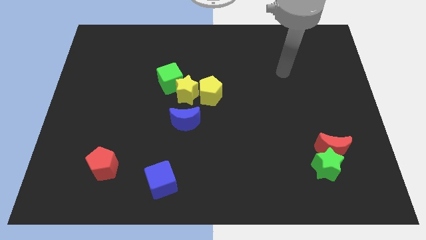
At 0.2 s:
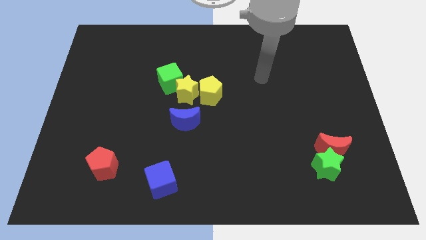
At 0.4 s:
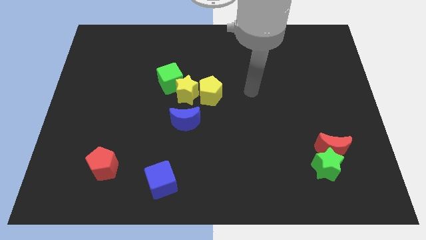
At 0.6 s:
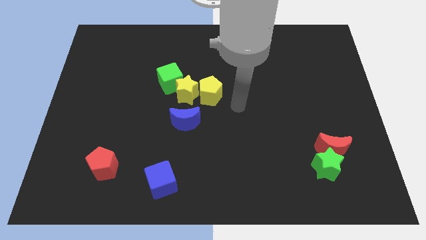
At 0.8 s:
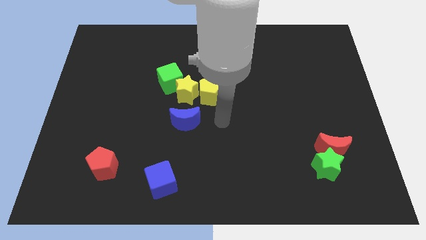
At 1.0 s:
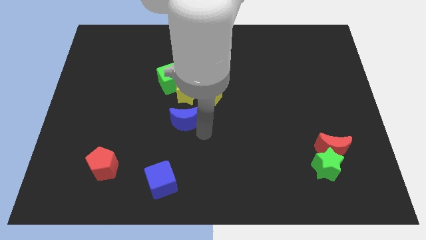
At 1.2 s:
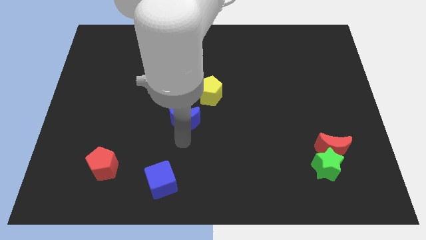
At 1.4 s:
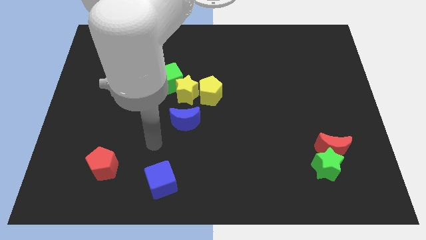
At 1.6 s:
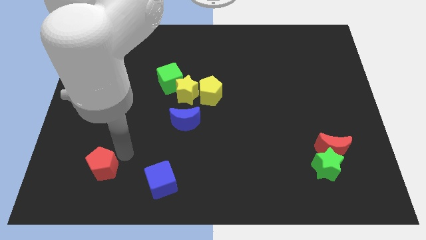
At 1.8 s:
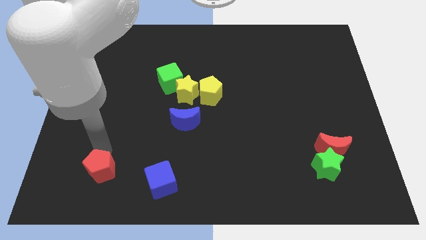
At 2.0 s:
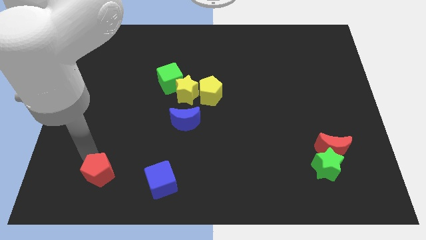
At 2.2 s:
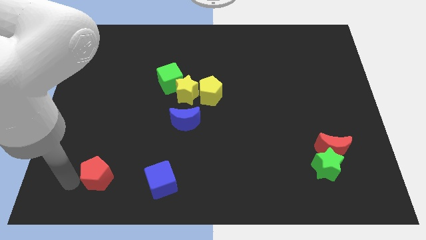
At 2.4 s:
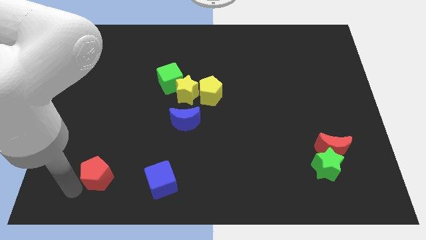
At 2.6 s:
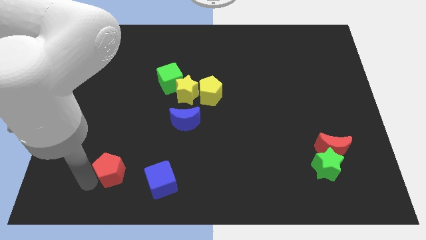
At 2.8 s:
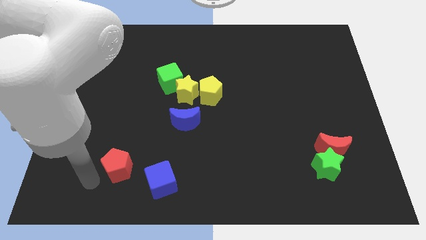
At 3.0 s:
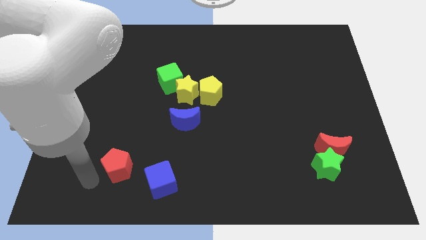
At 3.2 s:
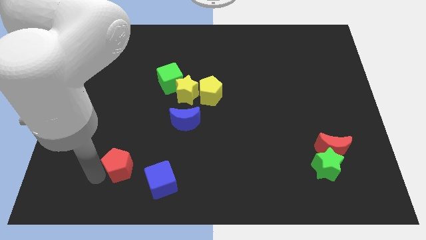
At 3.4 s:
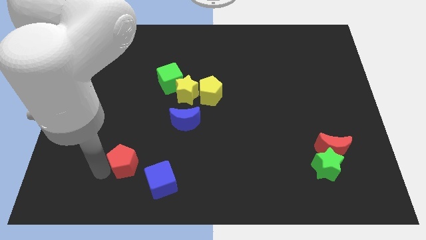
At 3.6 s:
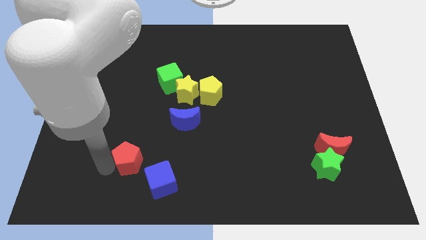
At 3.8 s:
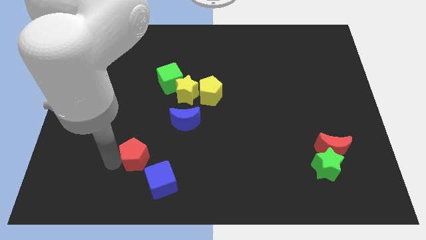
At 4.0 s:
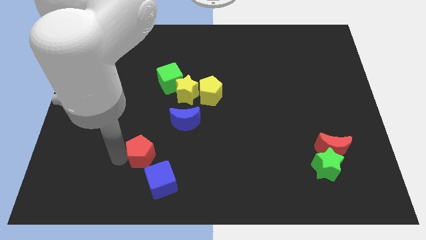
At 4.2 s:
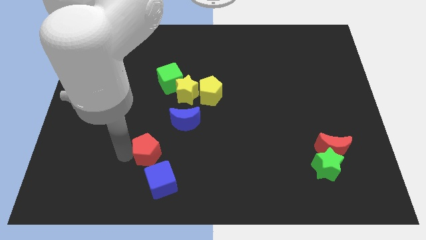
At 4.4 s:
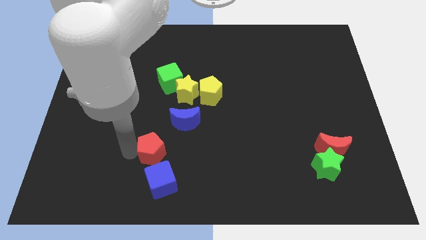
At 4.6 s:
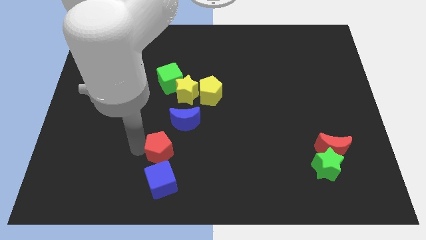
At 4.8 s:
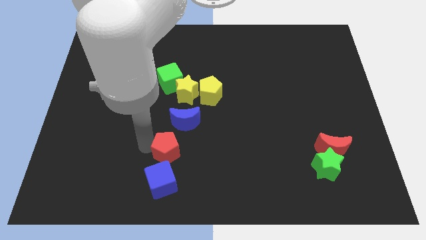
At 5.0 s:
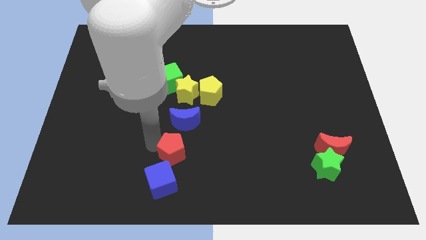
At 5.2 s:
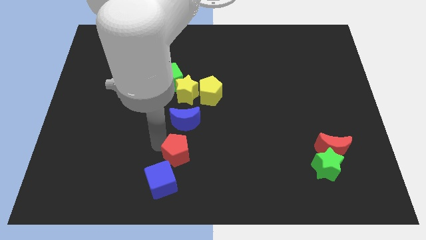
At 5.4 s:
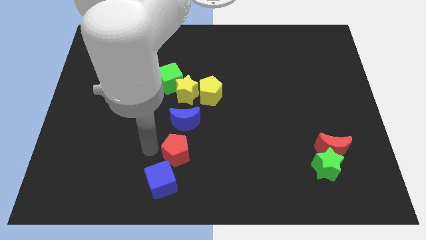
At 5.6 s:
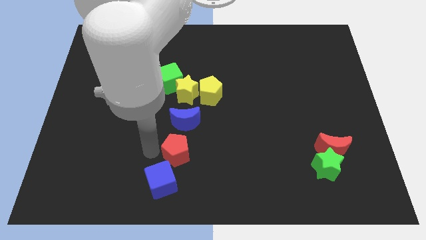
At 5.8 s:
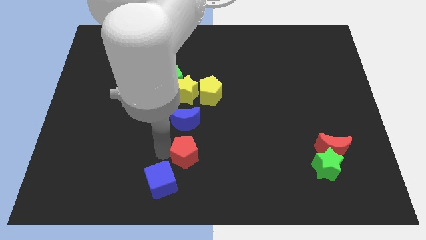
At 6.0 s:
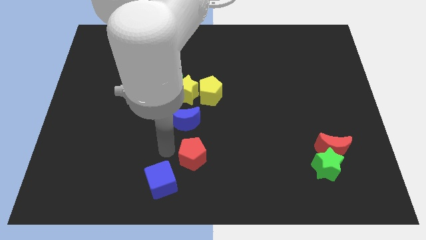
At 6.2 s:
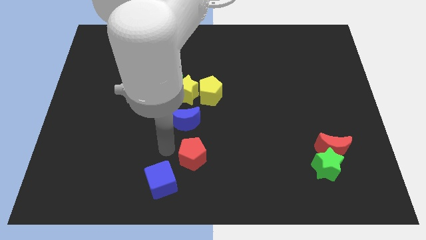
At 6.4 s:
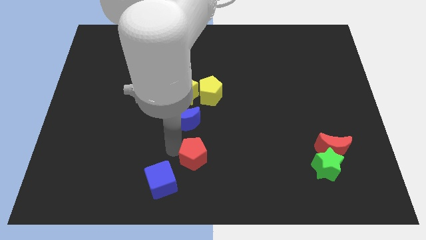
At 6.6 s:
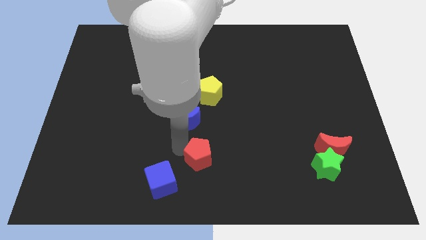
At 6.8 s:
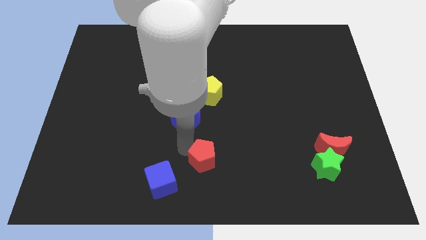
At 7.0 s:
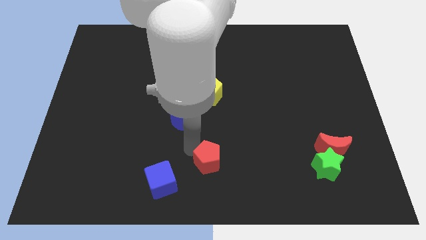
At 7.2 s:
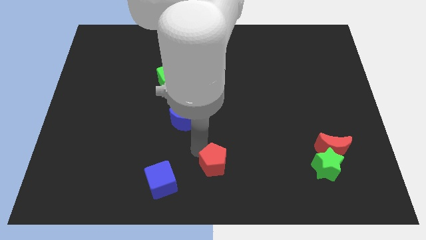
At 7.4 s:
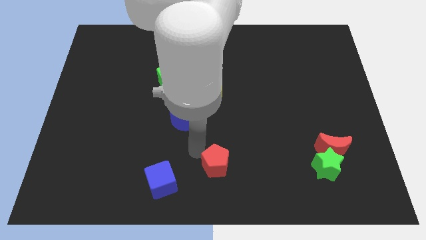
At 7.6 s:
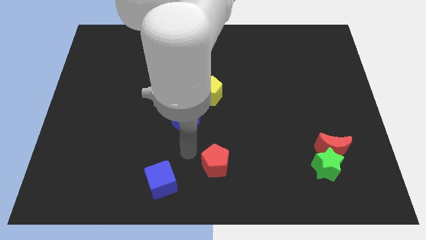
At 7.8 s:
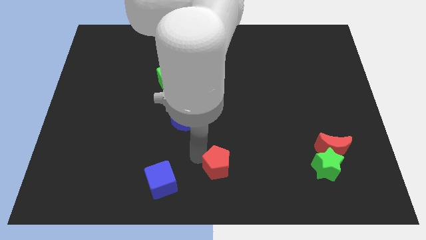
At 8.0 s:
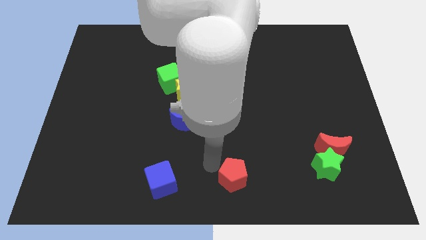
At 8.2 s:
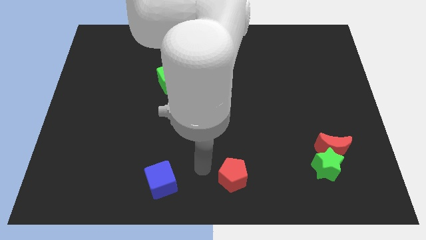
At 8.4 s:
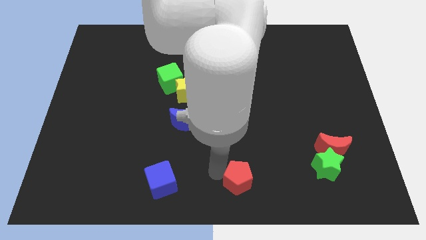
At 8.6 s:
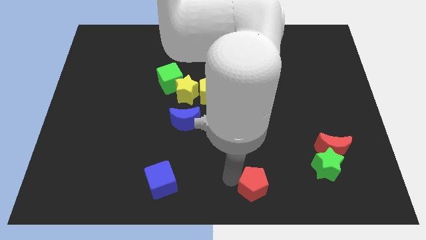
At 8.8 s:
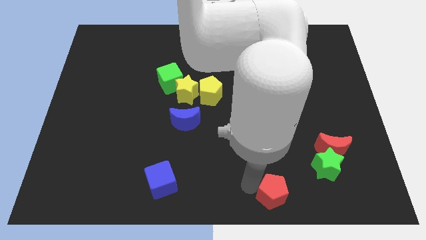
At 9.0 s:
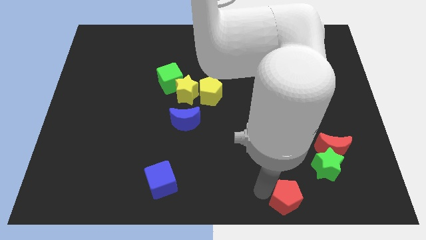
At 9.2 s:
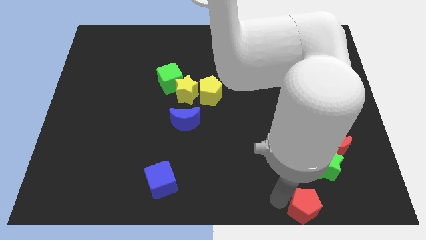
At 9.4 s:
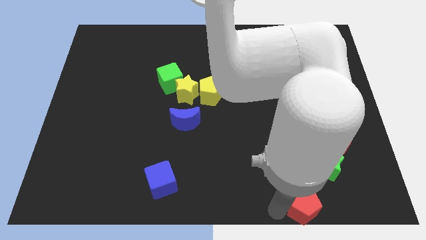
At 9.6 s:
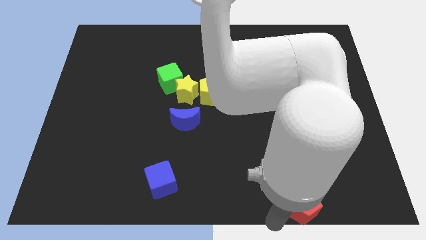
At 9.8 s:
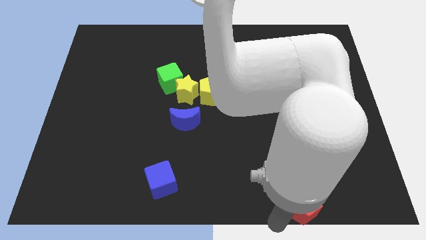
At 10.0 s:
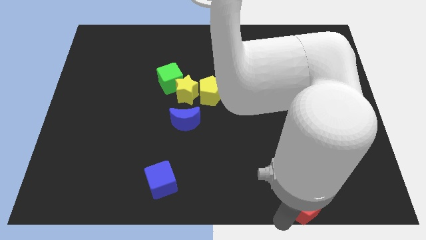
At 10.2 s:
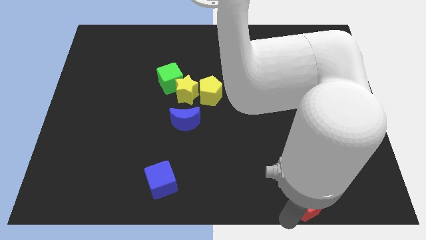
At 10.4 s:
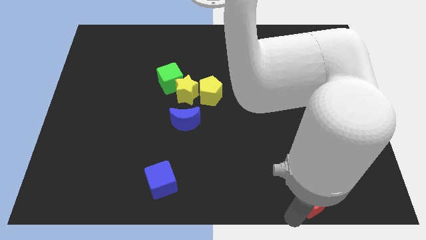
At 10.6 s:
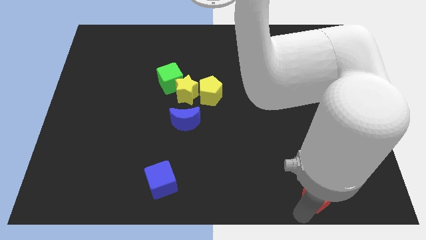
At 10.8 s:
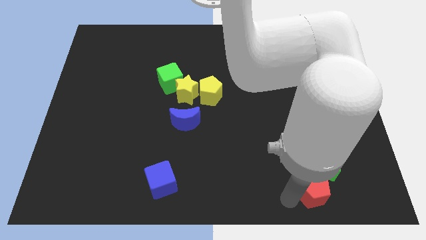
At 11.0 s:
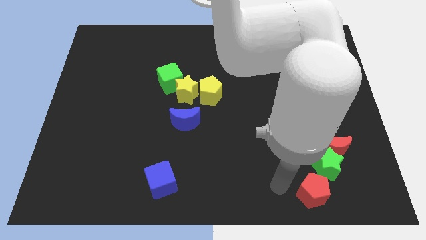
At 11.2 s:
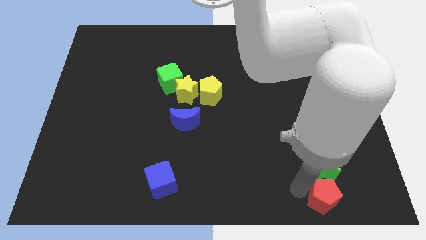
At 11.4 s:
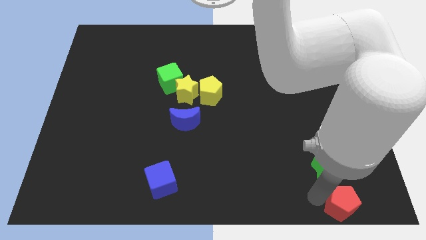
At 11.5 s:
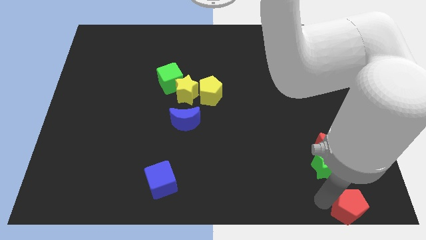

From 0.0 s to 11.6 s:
move the red pentagon to the bottom right of the board
